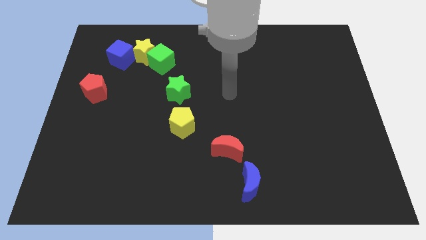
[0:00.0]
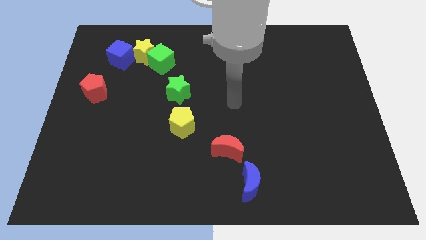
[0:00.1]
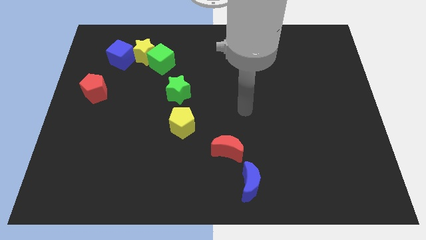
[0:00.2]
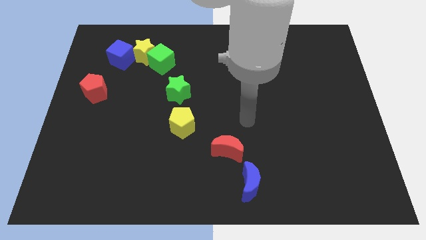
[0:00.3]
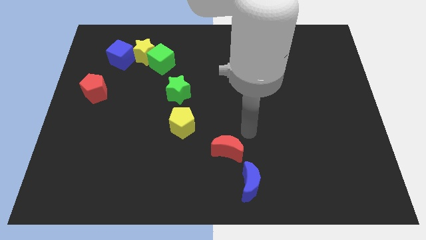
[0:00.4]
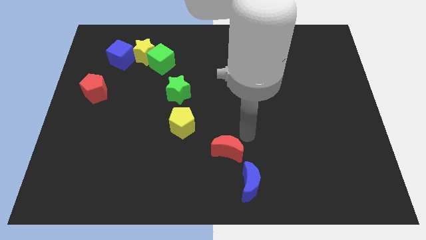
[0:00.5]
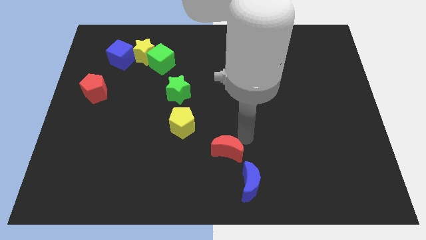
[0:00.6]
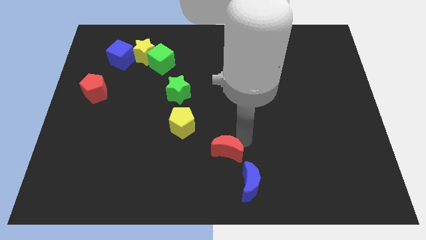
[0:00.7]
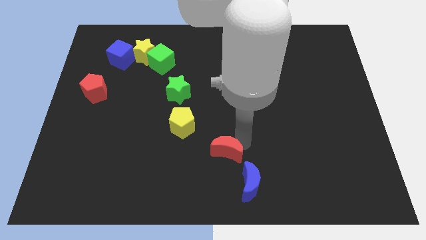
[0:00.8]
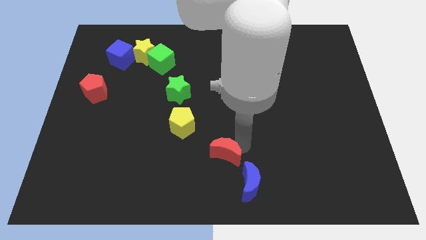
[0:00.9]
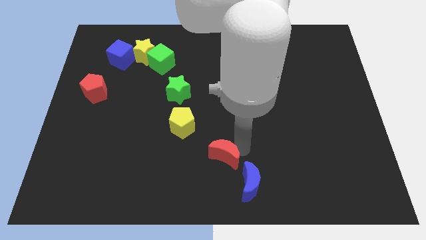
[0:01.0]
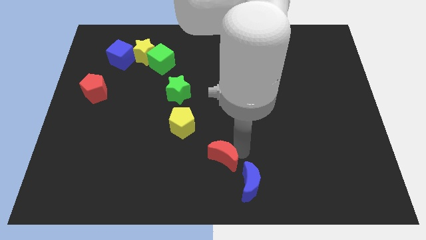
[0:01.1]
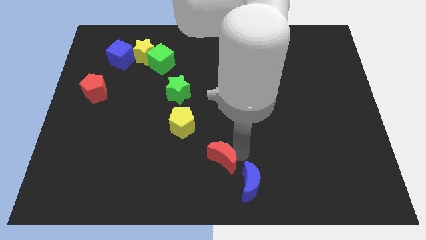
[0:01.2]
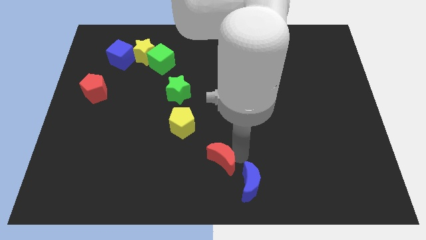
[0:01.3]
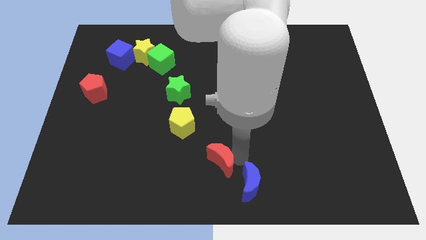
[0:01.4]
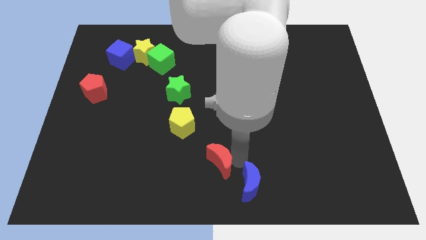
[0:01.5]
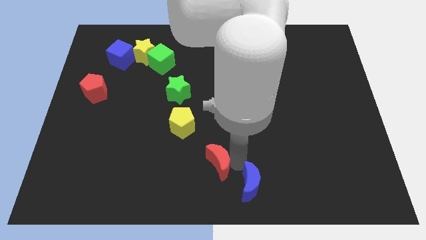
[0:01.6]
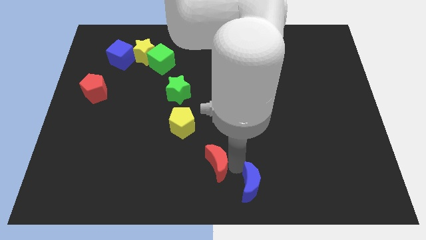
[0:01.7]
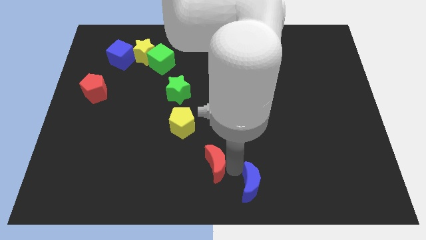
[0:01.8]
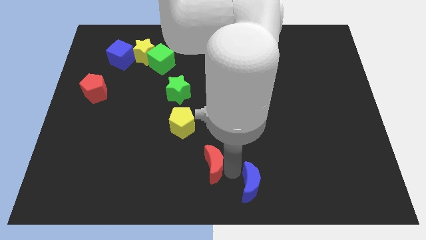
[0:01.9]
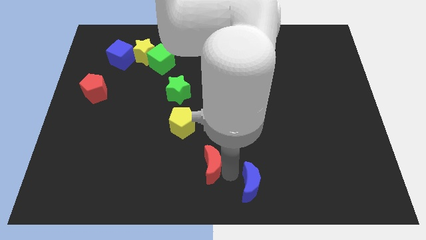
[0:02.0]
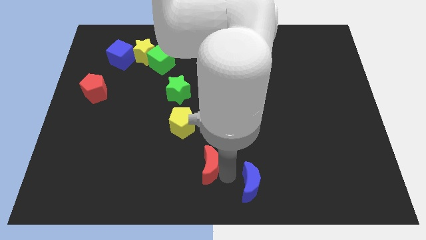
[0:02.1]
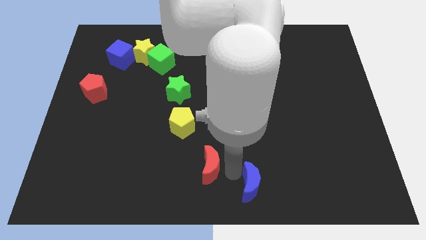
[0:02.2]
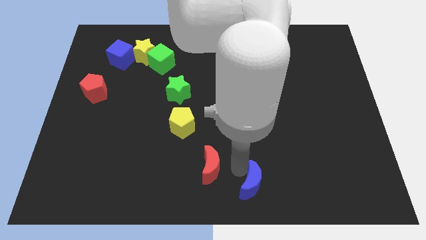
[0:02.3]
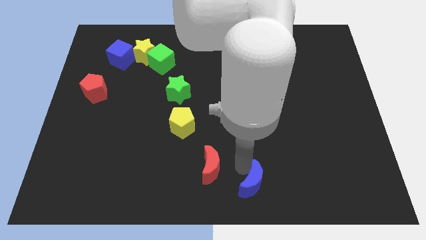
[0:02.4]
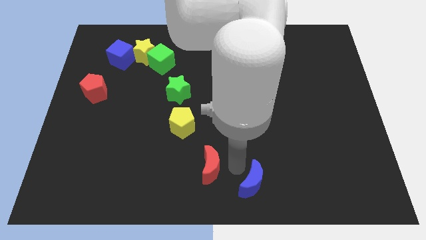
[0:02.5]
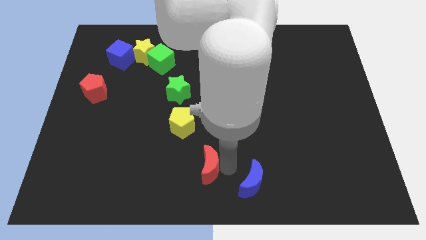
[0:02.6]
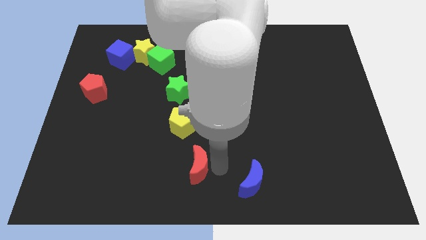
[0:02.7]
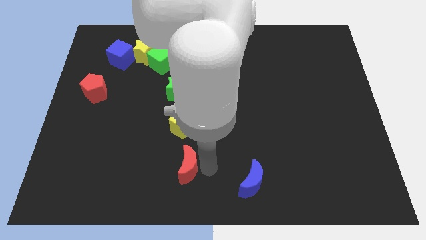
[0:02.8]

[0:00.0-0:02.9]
slightly slide the red moon to the left

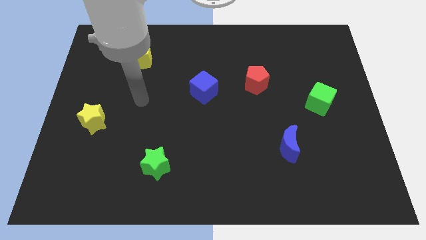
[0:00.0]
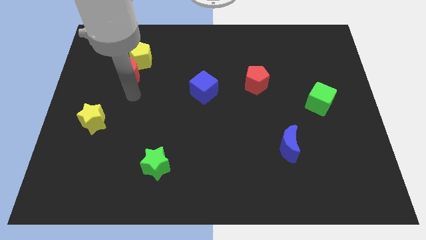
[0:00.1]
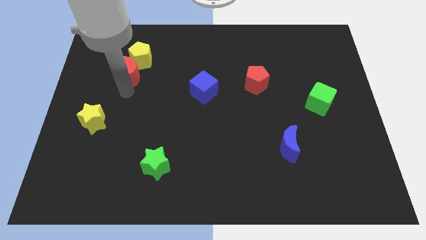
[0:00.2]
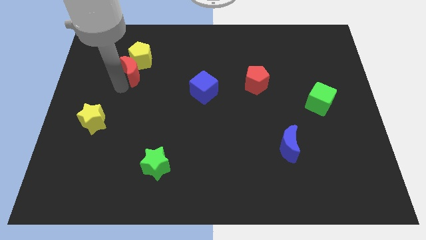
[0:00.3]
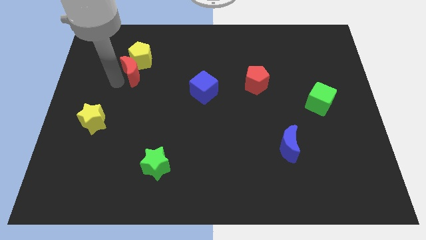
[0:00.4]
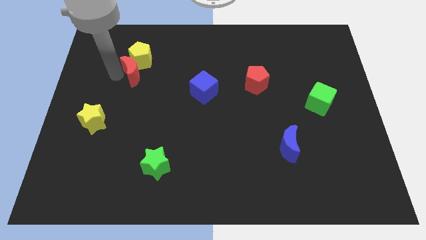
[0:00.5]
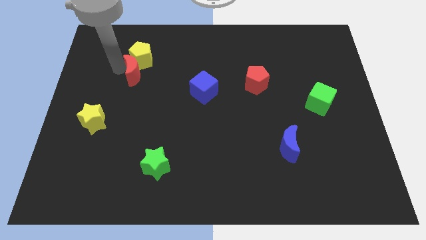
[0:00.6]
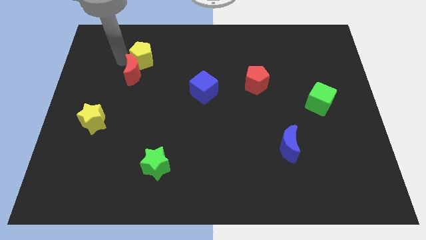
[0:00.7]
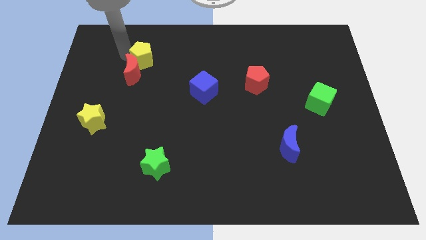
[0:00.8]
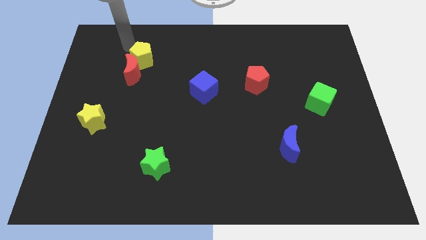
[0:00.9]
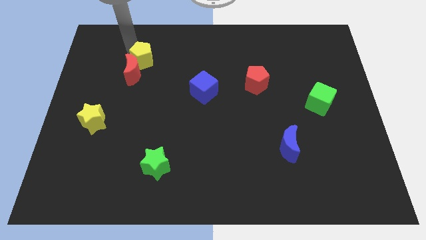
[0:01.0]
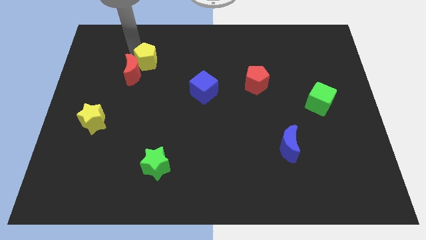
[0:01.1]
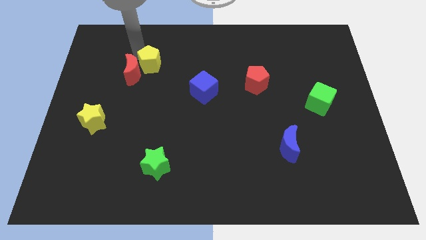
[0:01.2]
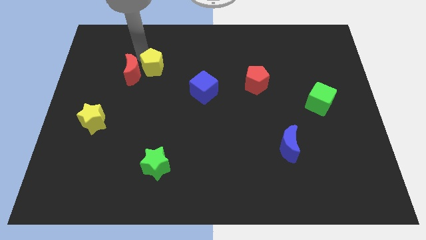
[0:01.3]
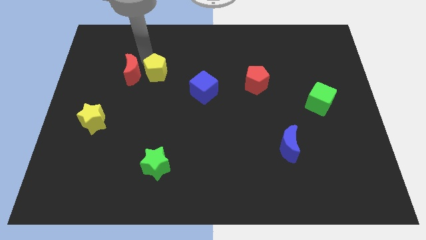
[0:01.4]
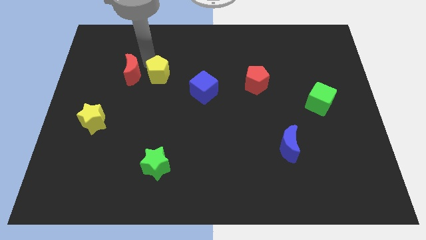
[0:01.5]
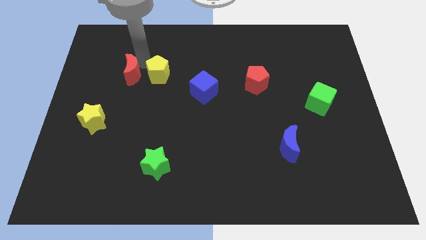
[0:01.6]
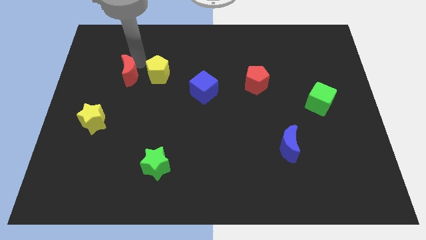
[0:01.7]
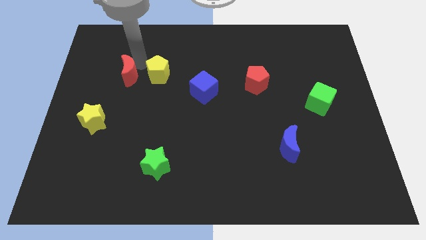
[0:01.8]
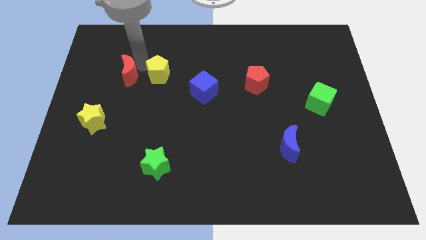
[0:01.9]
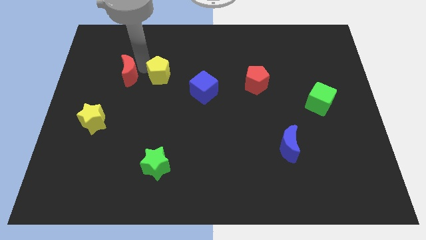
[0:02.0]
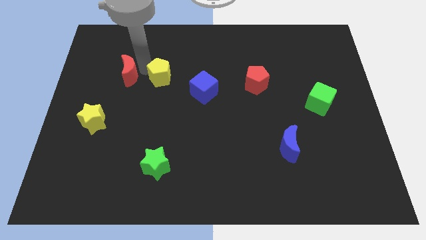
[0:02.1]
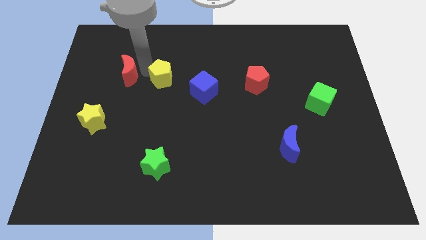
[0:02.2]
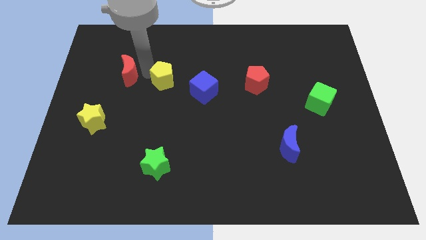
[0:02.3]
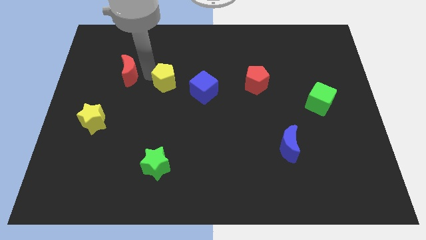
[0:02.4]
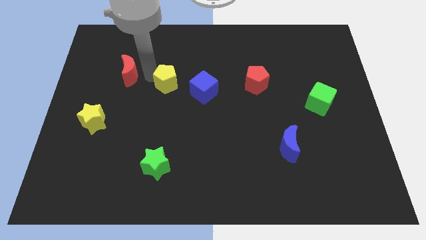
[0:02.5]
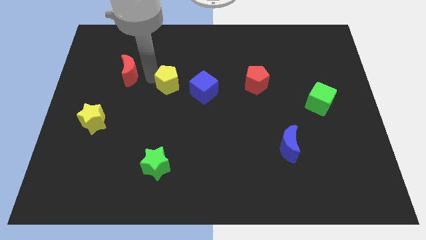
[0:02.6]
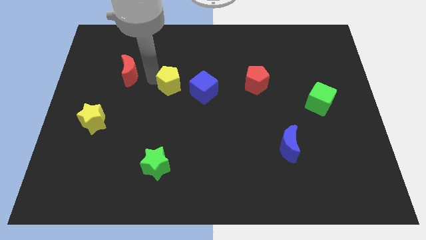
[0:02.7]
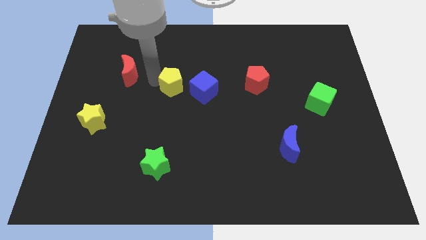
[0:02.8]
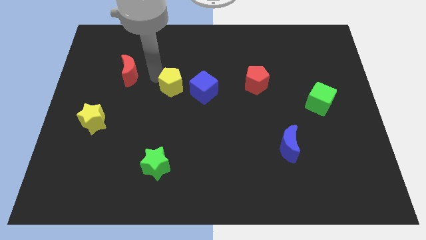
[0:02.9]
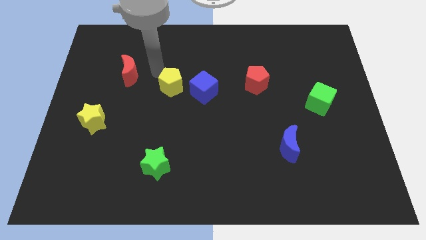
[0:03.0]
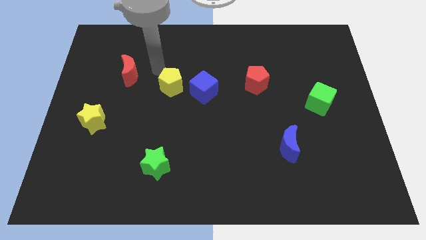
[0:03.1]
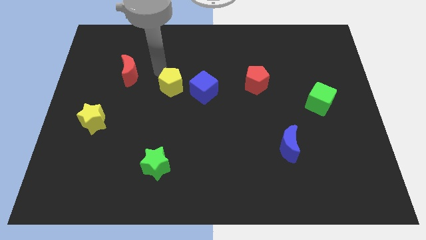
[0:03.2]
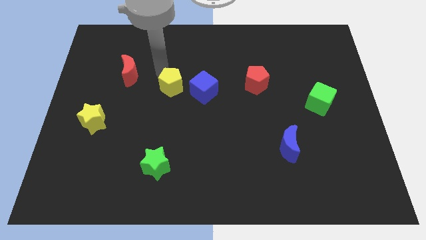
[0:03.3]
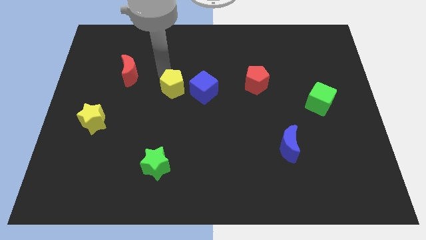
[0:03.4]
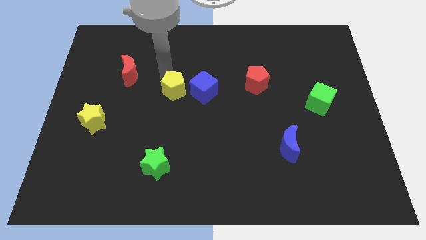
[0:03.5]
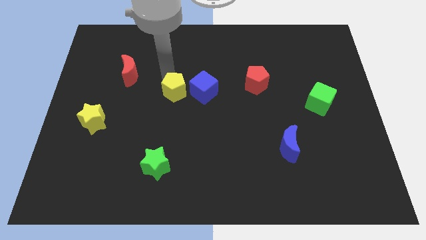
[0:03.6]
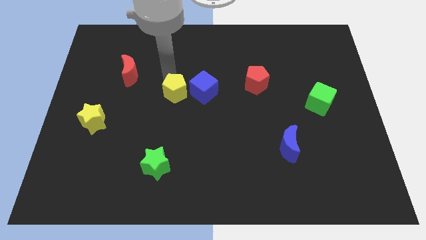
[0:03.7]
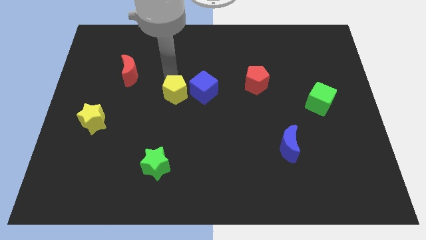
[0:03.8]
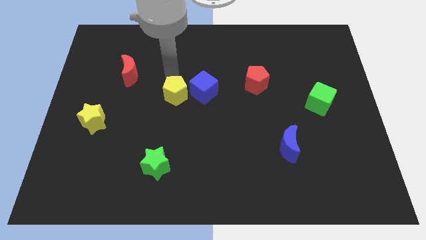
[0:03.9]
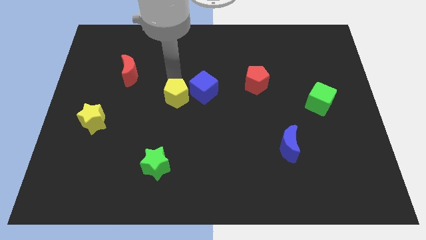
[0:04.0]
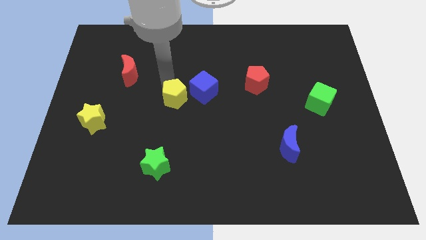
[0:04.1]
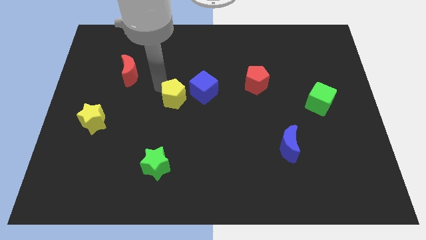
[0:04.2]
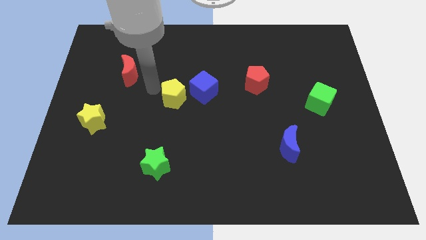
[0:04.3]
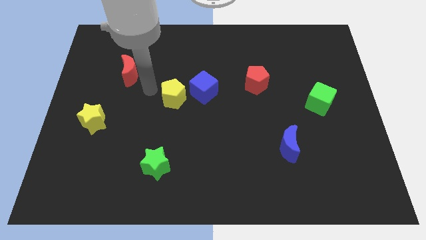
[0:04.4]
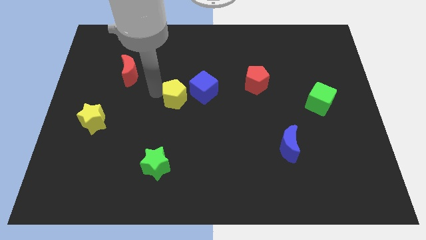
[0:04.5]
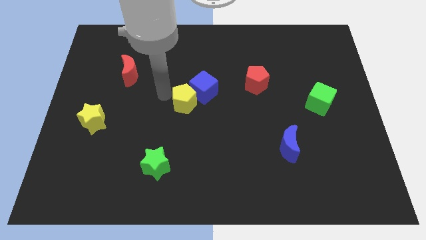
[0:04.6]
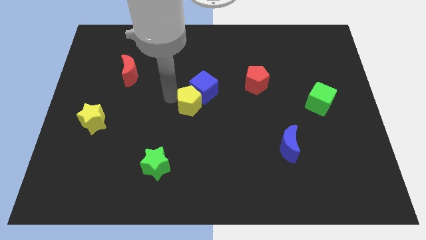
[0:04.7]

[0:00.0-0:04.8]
move the yellow pentagon down and to the right

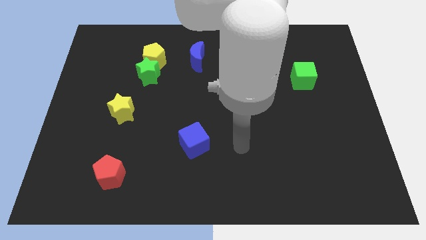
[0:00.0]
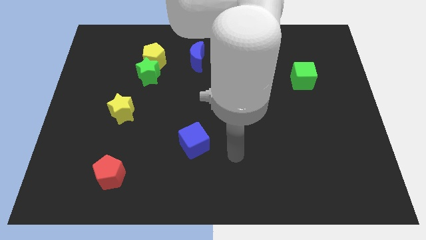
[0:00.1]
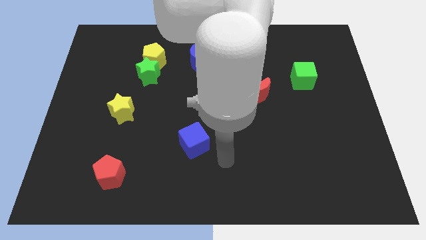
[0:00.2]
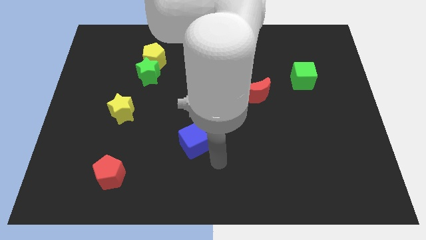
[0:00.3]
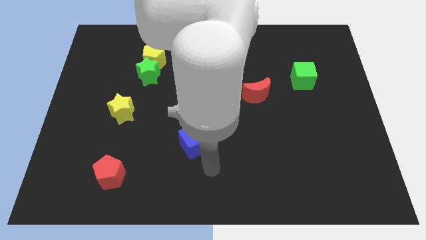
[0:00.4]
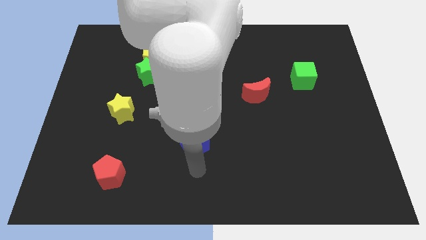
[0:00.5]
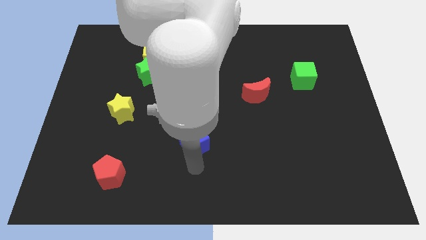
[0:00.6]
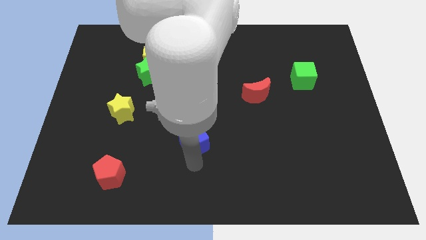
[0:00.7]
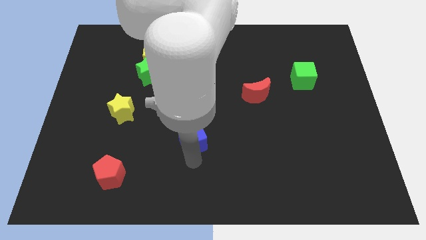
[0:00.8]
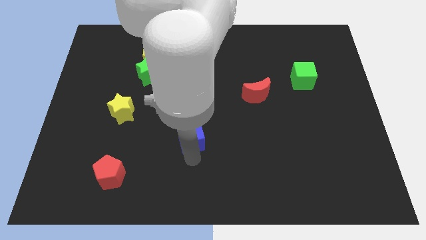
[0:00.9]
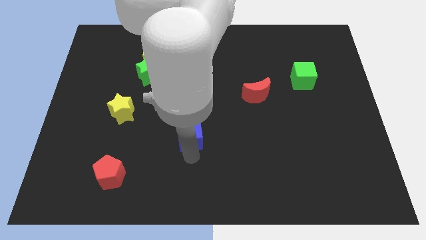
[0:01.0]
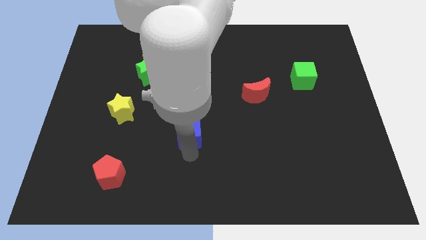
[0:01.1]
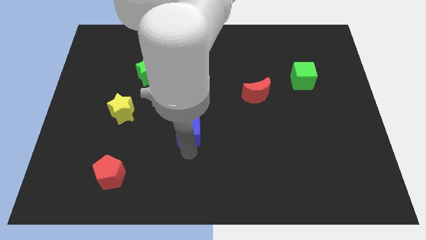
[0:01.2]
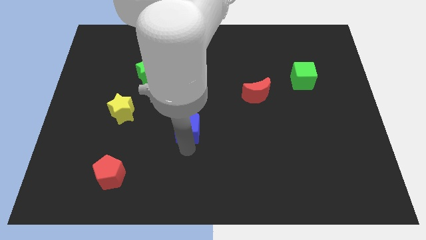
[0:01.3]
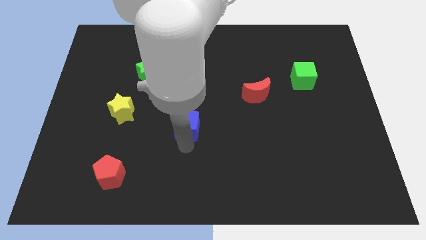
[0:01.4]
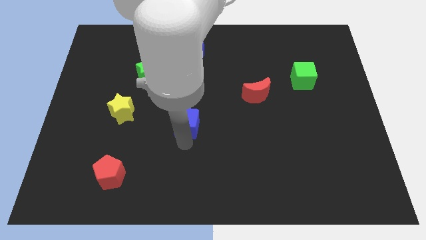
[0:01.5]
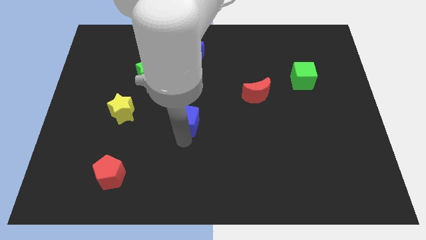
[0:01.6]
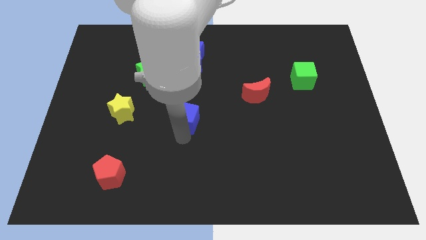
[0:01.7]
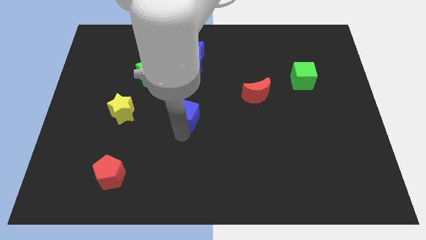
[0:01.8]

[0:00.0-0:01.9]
slide the blue cube up slightly
